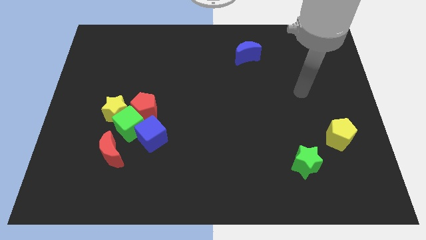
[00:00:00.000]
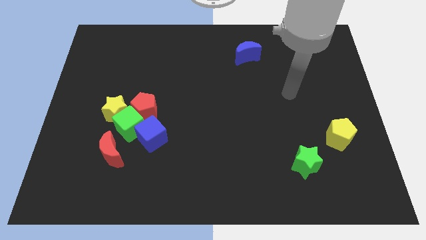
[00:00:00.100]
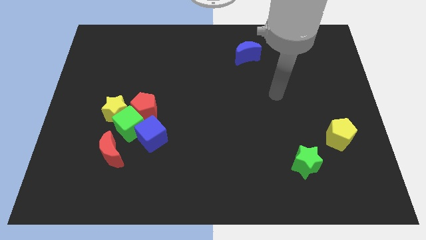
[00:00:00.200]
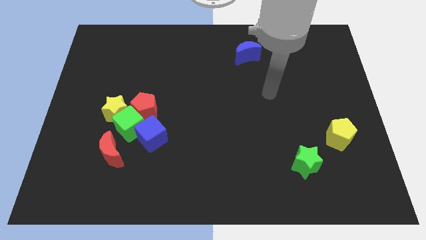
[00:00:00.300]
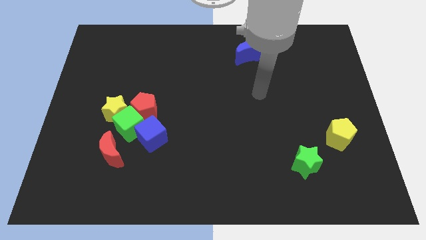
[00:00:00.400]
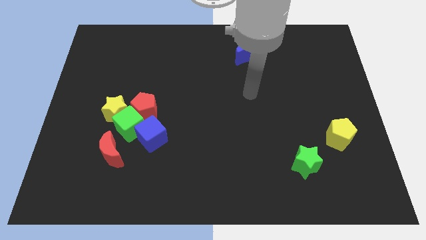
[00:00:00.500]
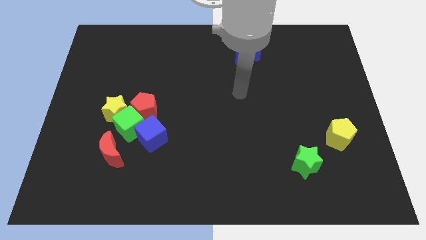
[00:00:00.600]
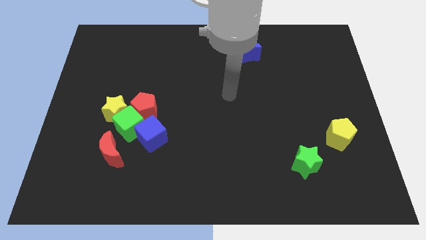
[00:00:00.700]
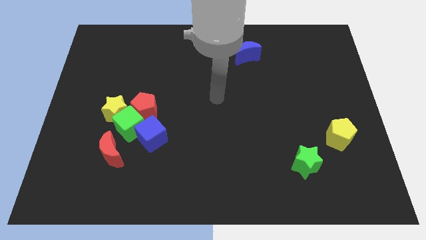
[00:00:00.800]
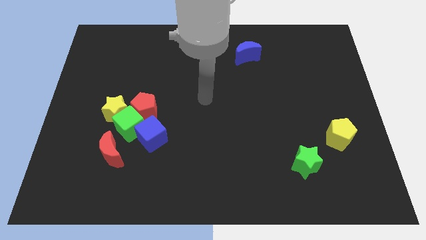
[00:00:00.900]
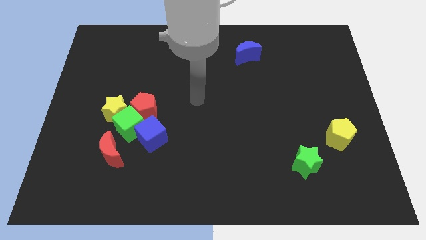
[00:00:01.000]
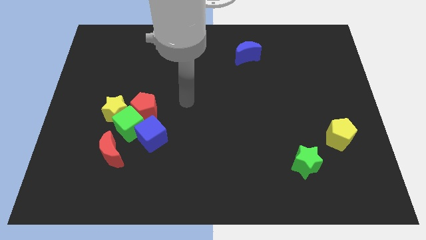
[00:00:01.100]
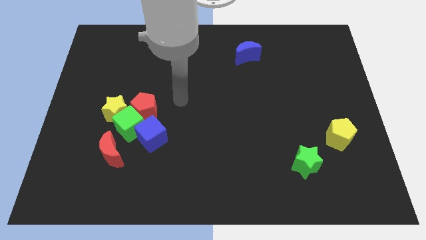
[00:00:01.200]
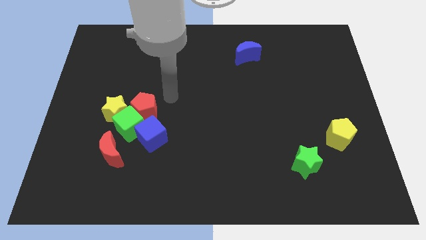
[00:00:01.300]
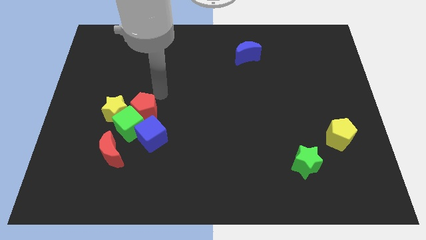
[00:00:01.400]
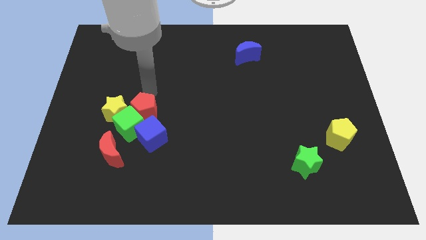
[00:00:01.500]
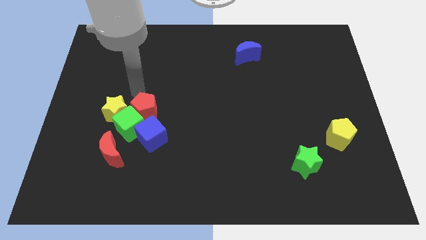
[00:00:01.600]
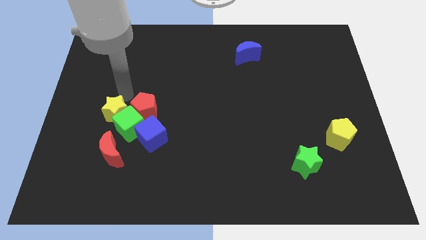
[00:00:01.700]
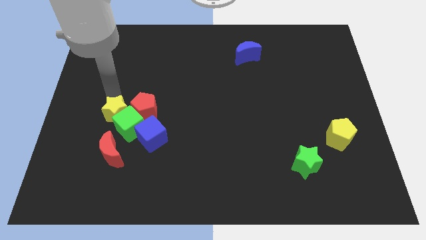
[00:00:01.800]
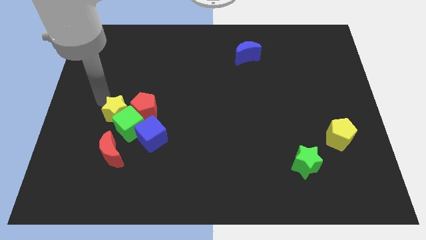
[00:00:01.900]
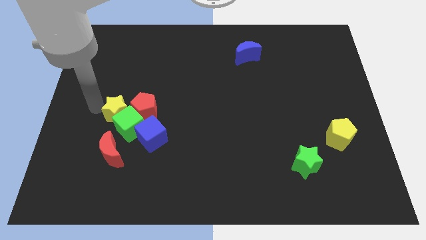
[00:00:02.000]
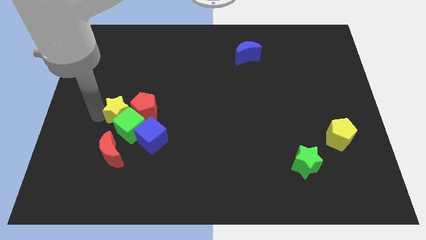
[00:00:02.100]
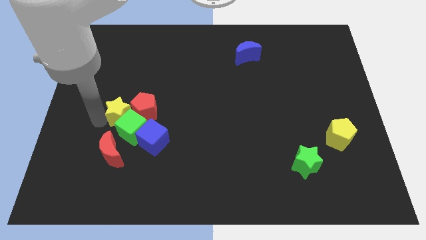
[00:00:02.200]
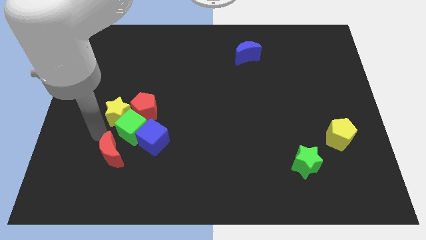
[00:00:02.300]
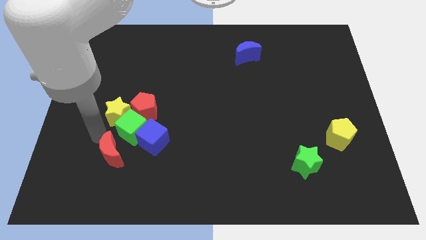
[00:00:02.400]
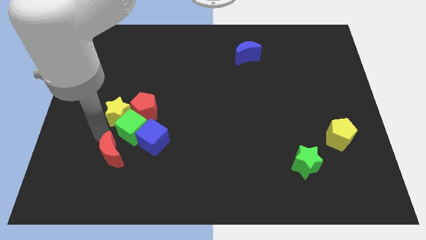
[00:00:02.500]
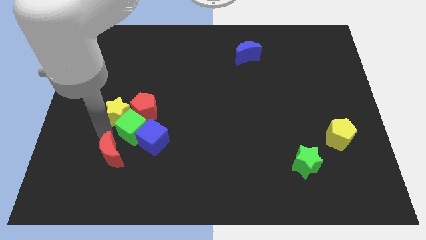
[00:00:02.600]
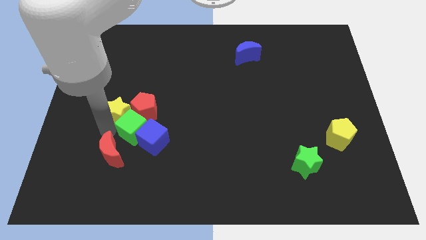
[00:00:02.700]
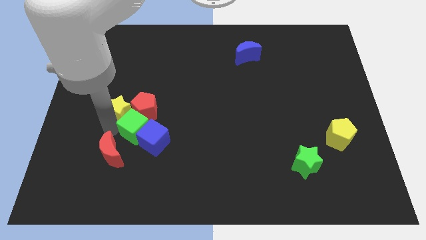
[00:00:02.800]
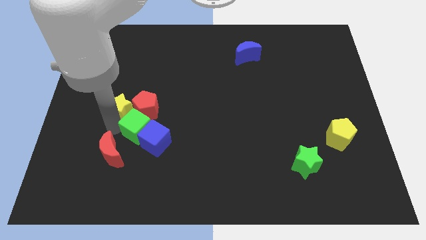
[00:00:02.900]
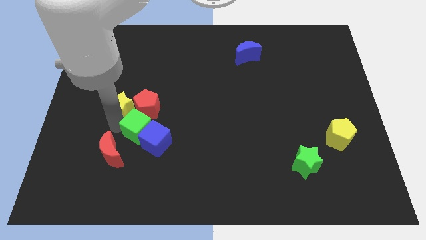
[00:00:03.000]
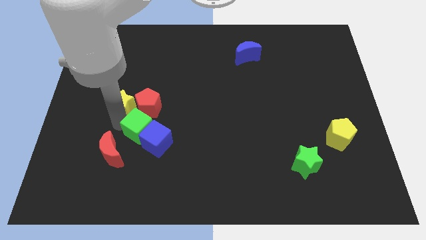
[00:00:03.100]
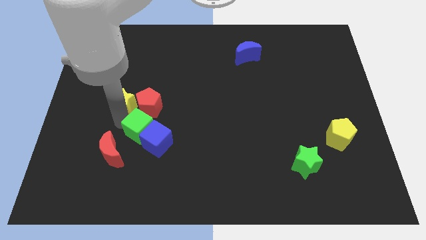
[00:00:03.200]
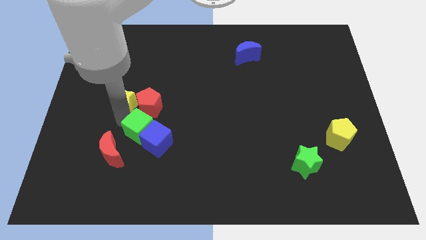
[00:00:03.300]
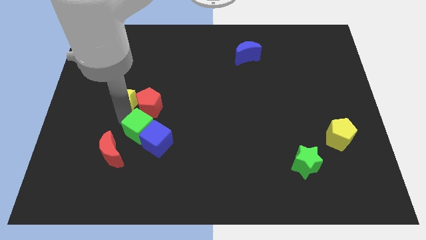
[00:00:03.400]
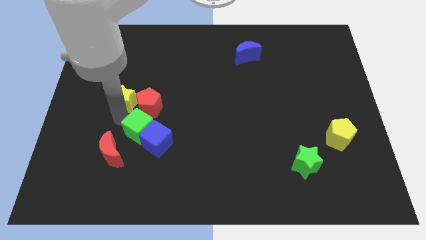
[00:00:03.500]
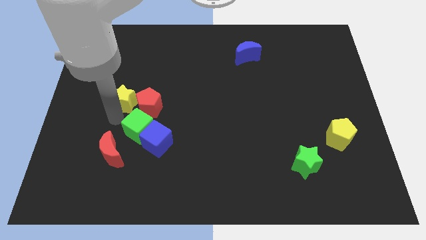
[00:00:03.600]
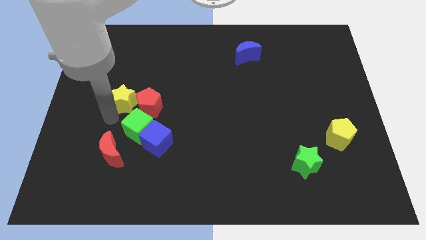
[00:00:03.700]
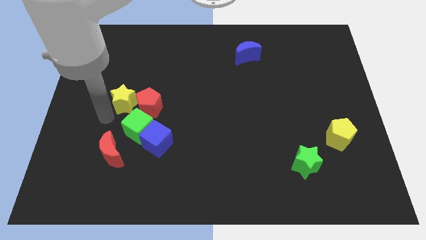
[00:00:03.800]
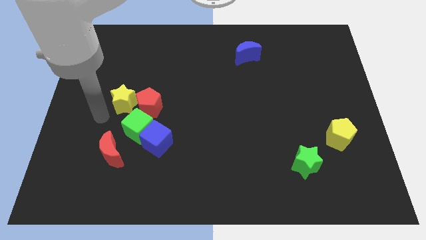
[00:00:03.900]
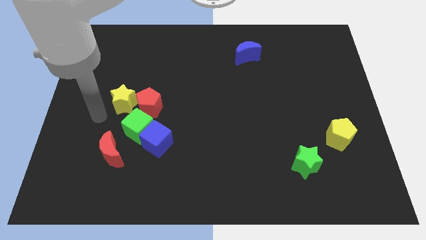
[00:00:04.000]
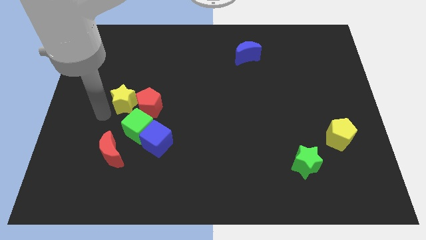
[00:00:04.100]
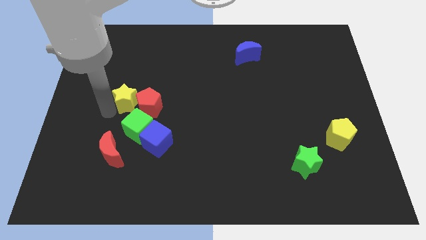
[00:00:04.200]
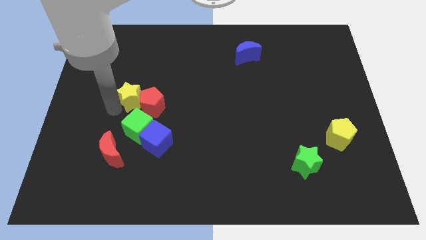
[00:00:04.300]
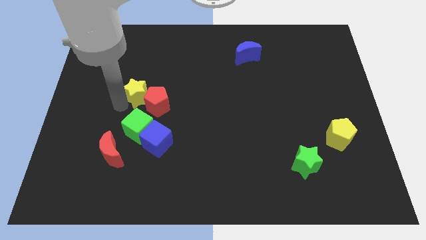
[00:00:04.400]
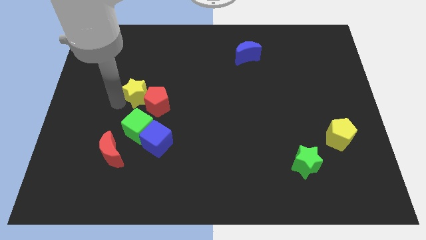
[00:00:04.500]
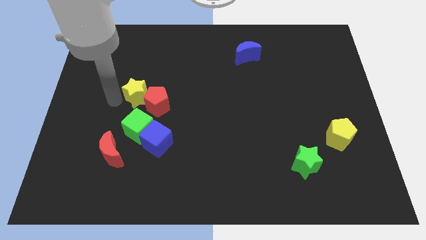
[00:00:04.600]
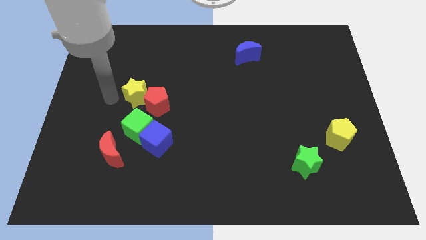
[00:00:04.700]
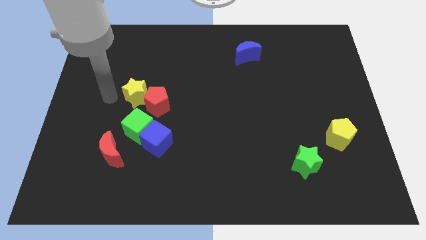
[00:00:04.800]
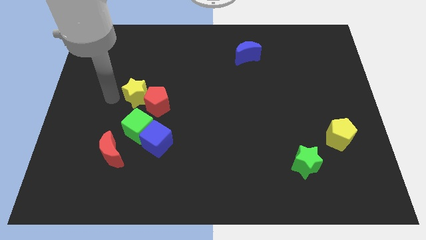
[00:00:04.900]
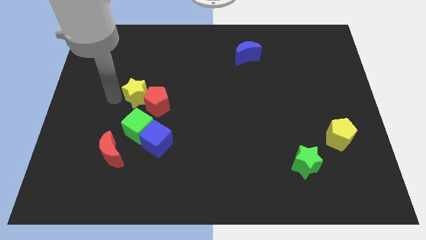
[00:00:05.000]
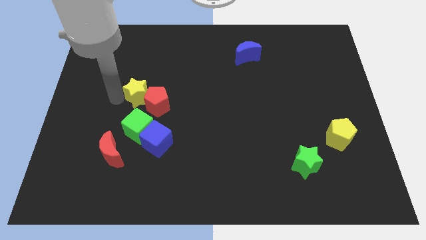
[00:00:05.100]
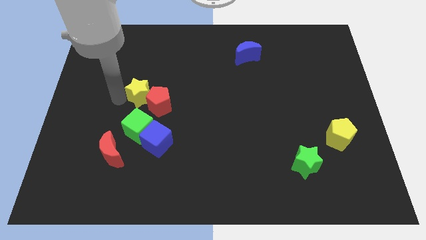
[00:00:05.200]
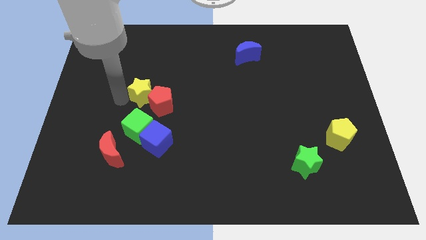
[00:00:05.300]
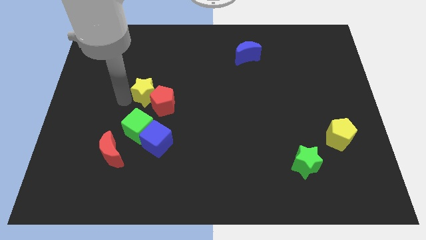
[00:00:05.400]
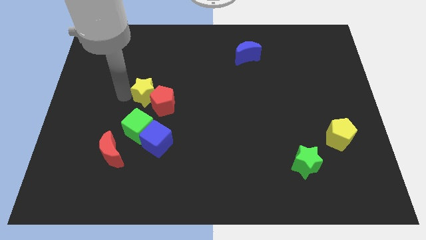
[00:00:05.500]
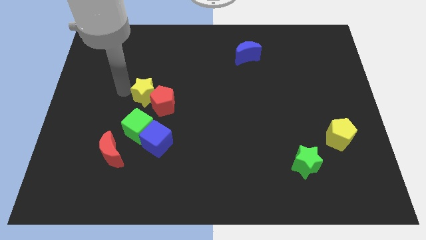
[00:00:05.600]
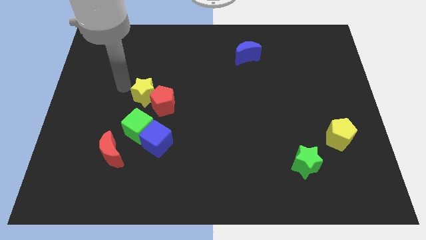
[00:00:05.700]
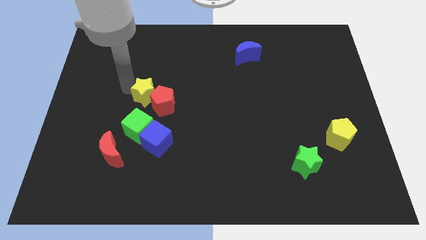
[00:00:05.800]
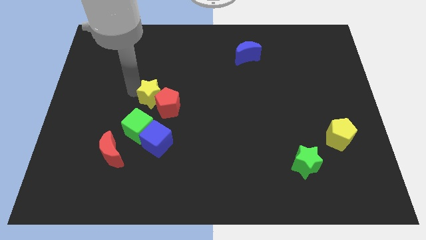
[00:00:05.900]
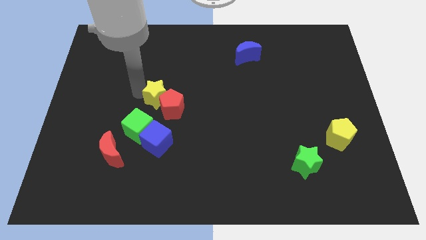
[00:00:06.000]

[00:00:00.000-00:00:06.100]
slightly slide the yellow star right

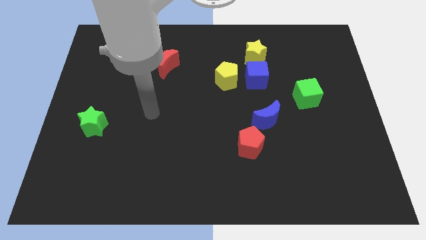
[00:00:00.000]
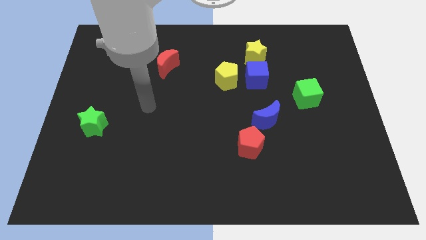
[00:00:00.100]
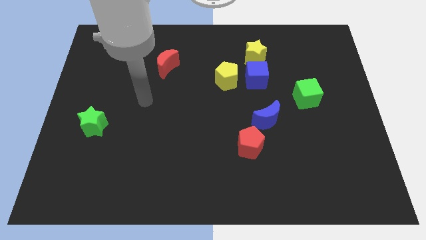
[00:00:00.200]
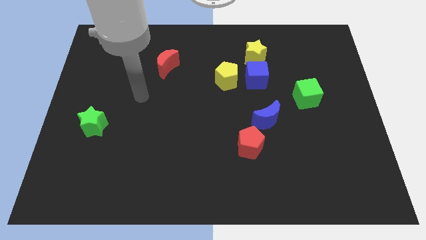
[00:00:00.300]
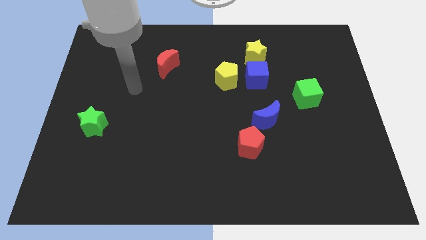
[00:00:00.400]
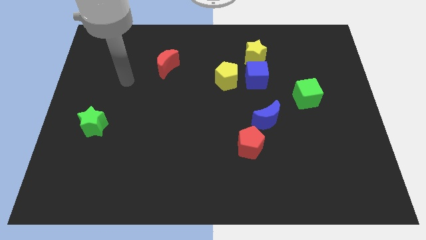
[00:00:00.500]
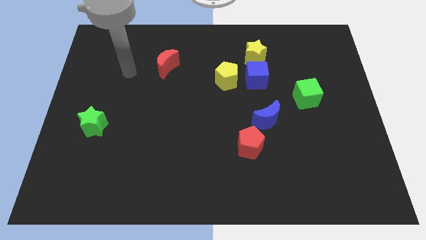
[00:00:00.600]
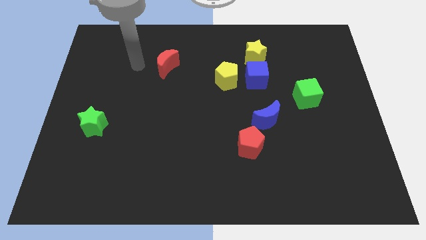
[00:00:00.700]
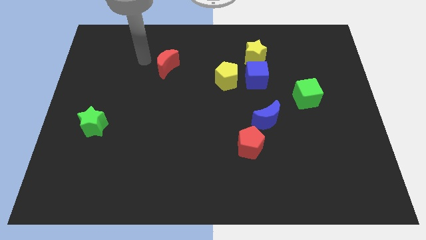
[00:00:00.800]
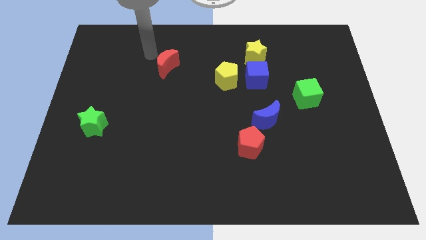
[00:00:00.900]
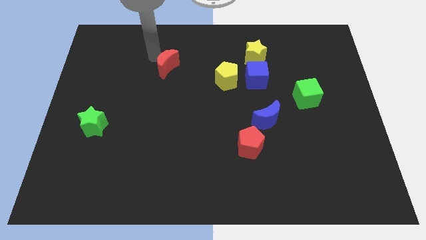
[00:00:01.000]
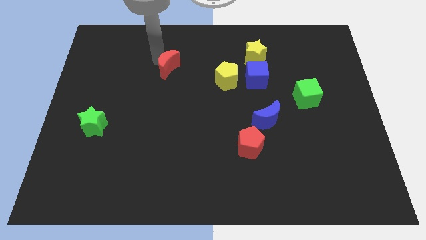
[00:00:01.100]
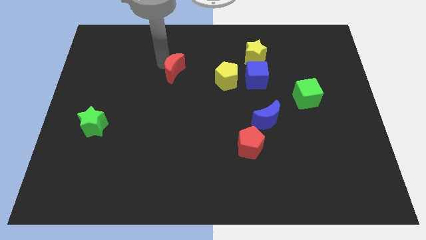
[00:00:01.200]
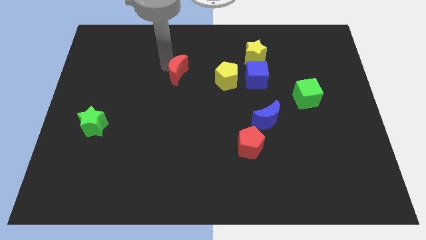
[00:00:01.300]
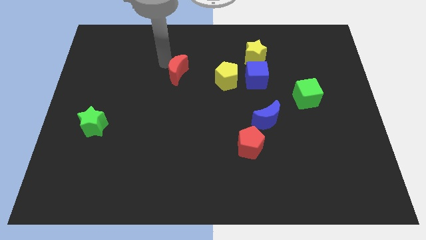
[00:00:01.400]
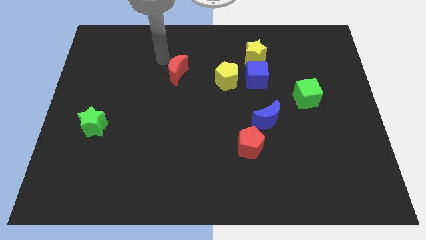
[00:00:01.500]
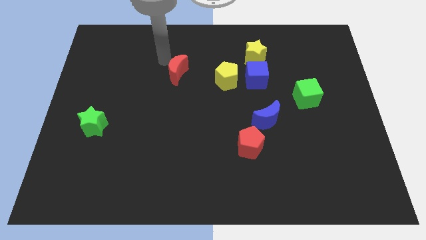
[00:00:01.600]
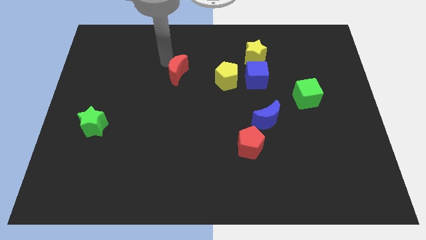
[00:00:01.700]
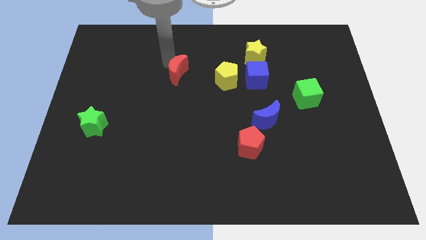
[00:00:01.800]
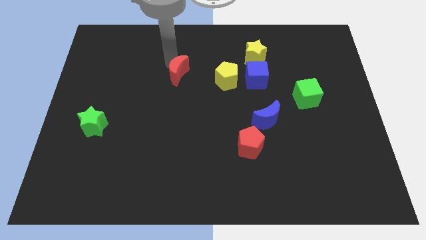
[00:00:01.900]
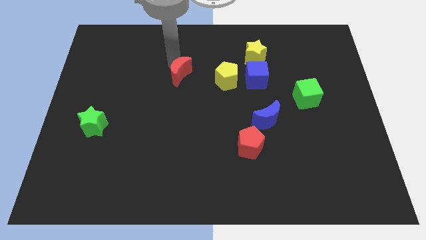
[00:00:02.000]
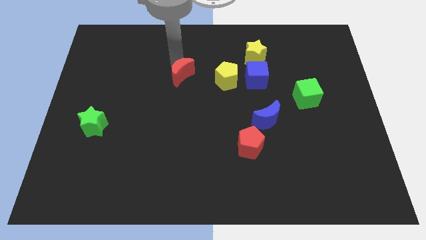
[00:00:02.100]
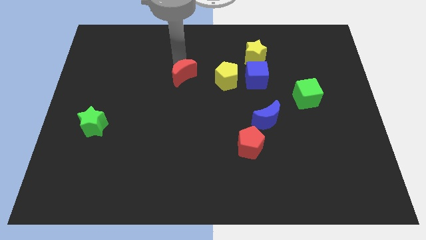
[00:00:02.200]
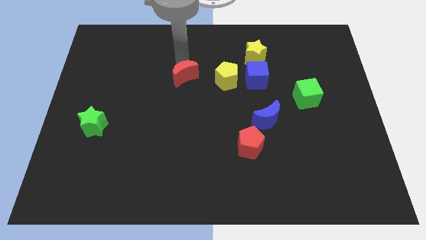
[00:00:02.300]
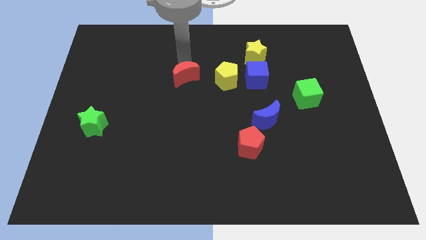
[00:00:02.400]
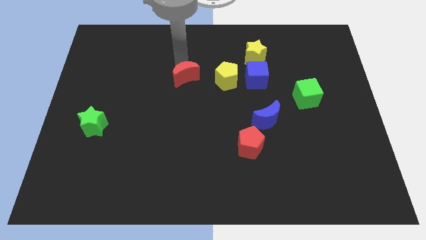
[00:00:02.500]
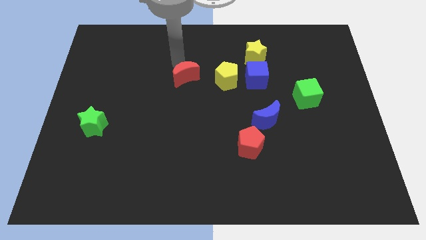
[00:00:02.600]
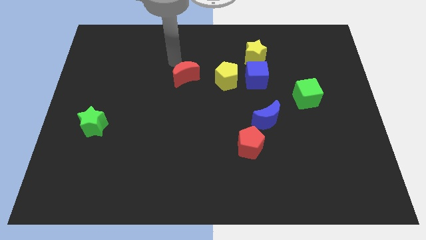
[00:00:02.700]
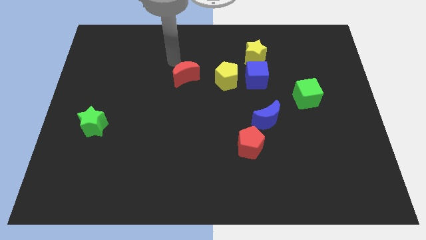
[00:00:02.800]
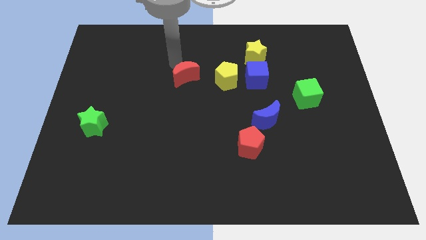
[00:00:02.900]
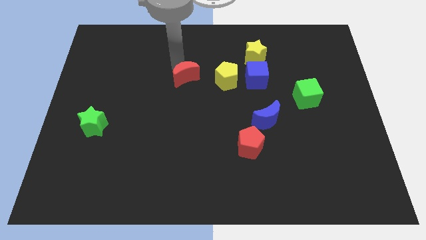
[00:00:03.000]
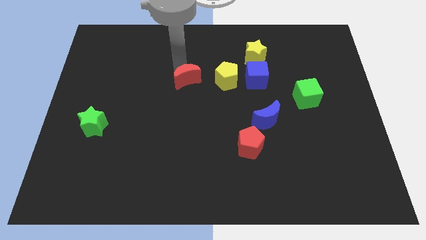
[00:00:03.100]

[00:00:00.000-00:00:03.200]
slightly move the red moon diagonally downwards and right
